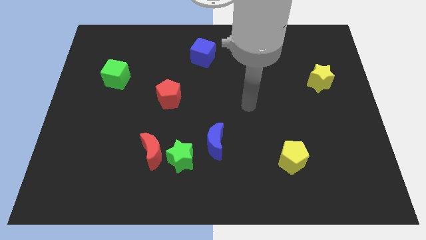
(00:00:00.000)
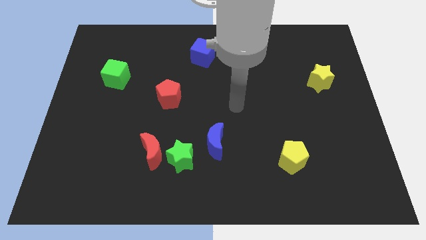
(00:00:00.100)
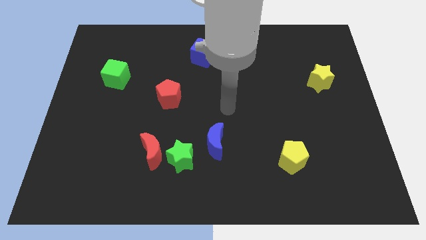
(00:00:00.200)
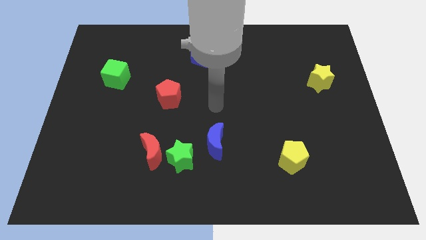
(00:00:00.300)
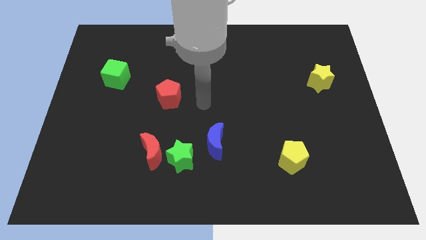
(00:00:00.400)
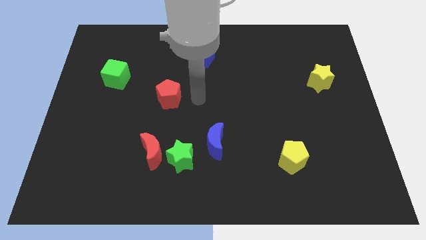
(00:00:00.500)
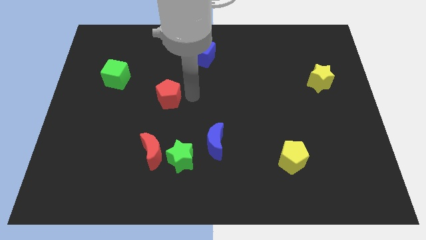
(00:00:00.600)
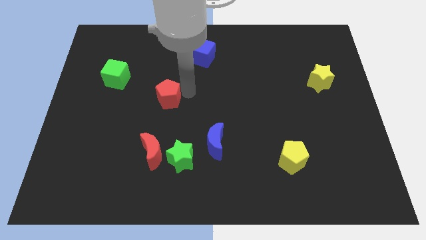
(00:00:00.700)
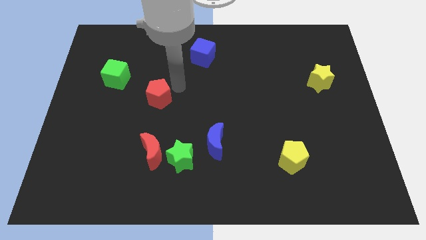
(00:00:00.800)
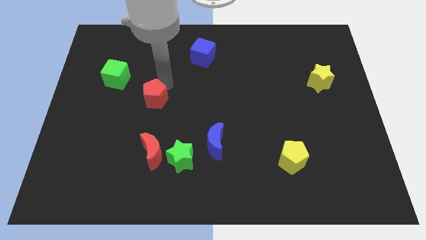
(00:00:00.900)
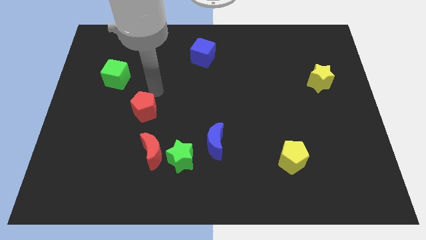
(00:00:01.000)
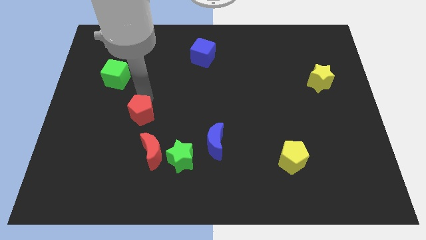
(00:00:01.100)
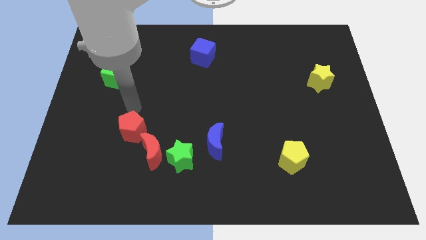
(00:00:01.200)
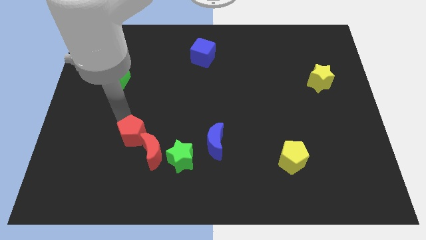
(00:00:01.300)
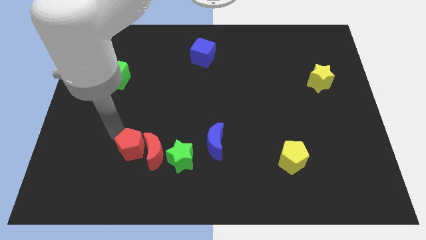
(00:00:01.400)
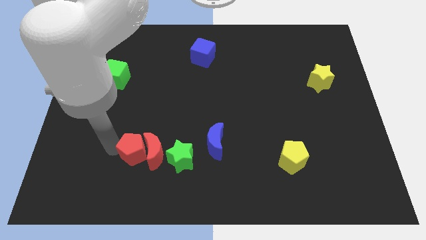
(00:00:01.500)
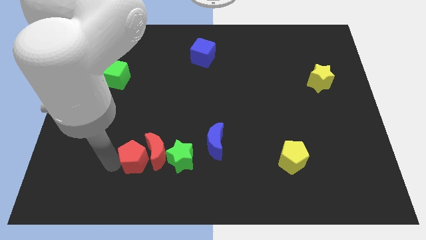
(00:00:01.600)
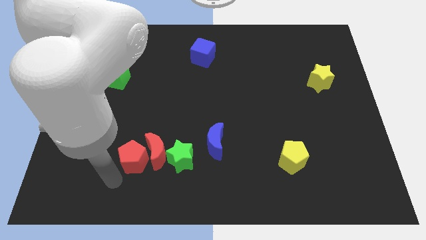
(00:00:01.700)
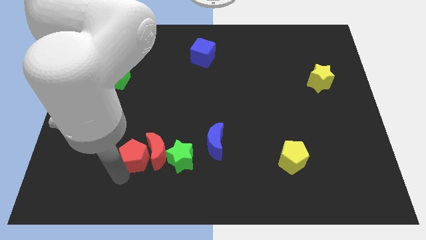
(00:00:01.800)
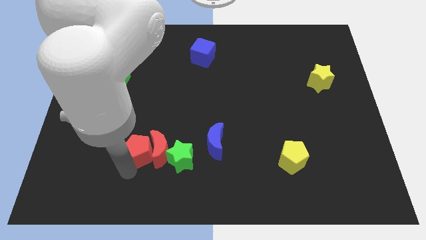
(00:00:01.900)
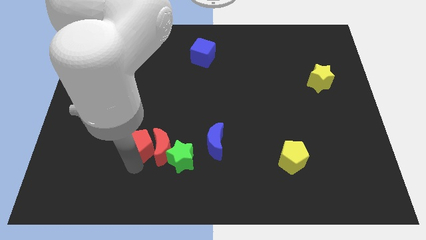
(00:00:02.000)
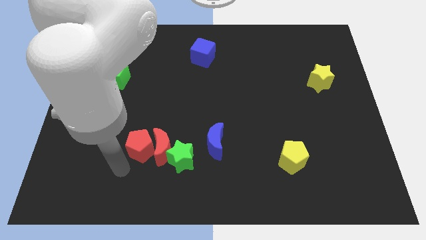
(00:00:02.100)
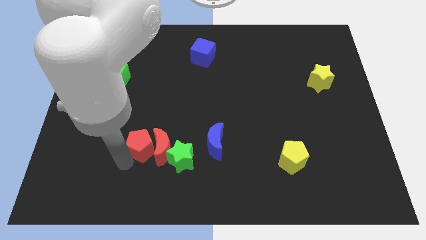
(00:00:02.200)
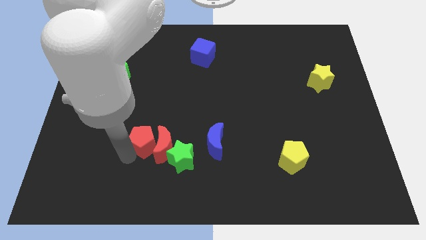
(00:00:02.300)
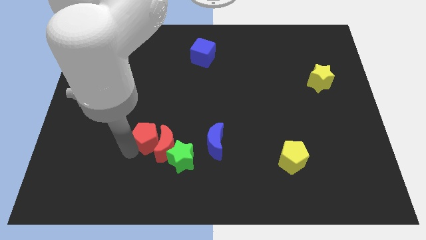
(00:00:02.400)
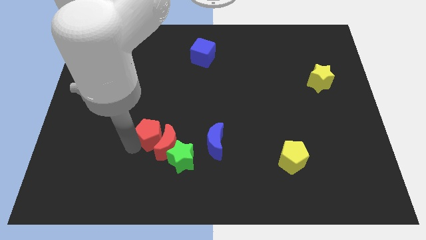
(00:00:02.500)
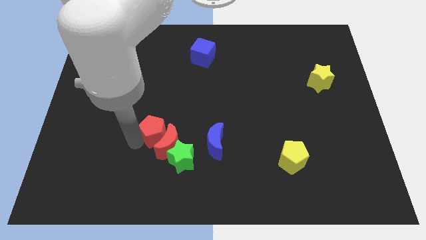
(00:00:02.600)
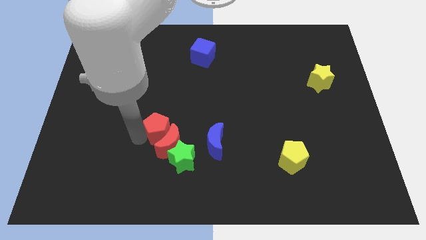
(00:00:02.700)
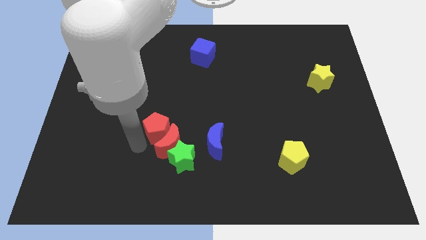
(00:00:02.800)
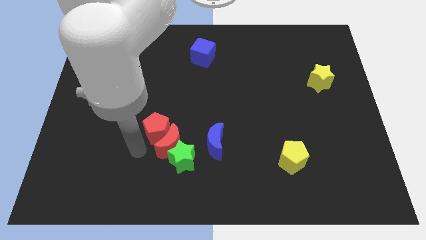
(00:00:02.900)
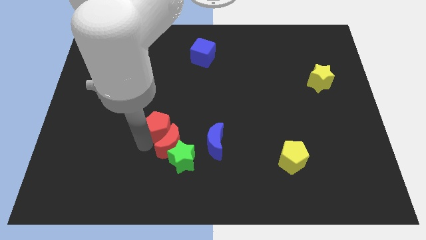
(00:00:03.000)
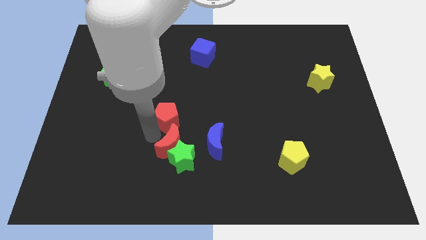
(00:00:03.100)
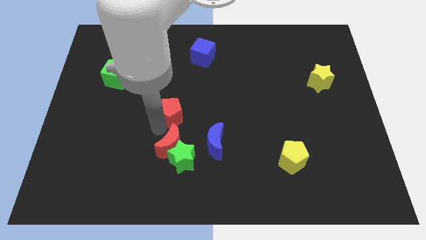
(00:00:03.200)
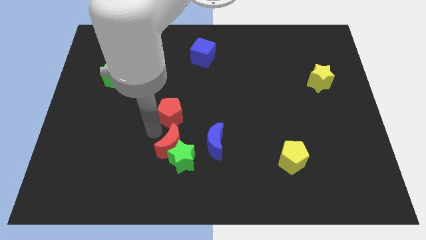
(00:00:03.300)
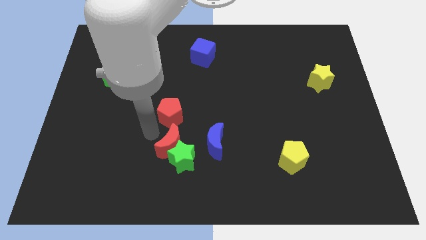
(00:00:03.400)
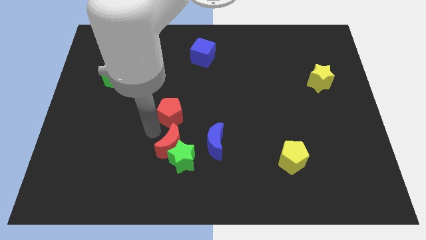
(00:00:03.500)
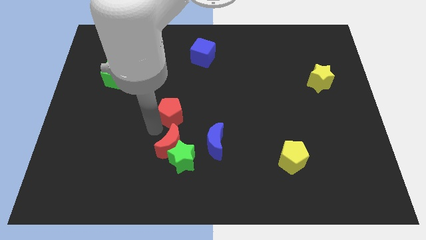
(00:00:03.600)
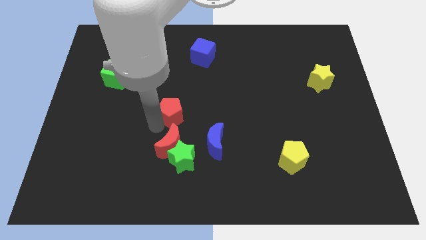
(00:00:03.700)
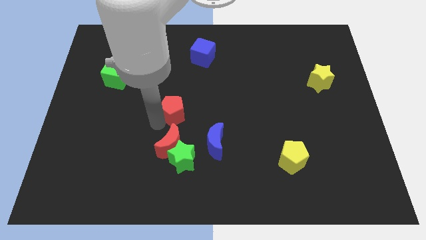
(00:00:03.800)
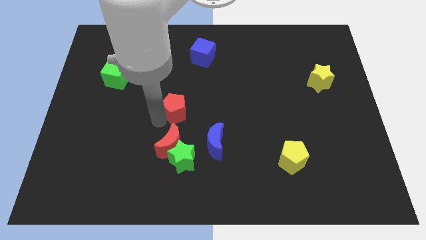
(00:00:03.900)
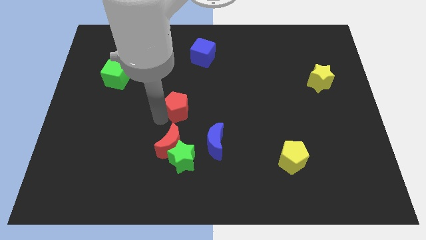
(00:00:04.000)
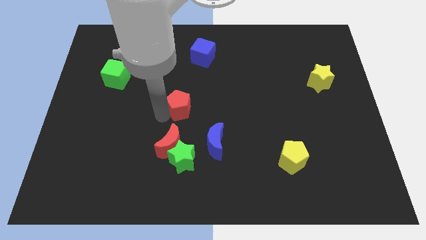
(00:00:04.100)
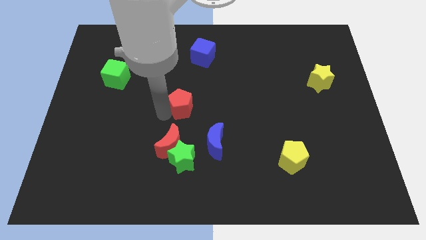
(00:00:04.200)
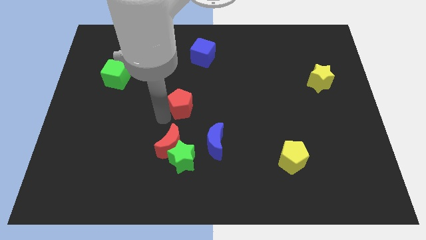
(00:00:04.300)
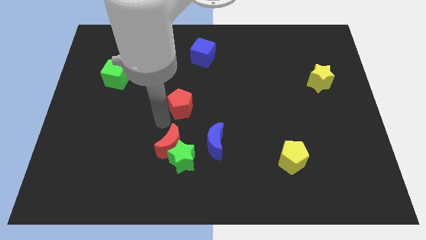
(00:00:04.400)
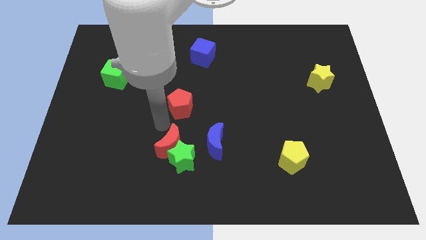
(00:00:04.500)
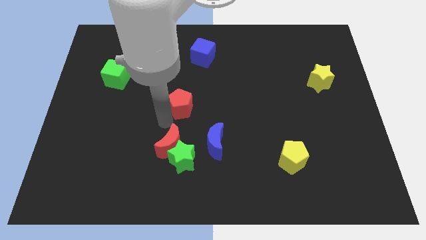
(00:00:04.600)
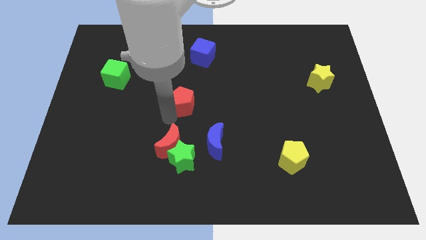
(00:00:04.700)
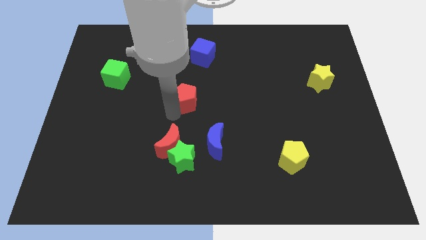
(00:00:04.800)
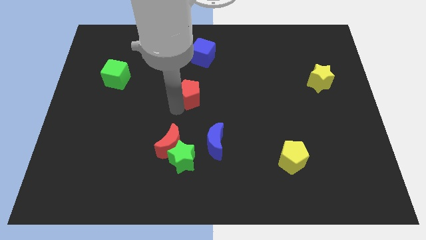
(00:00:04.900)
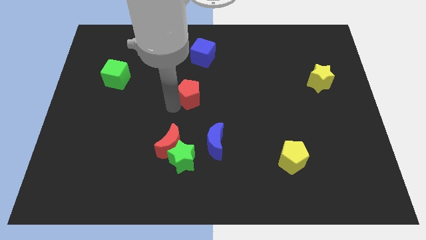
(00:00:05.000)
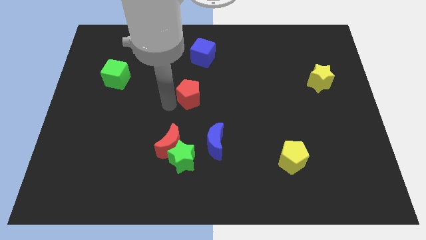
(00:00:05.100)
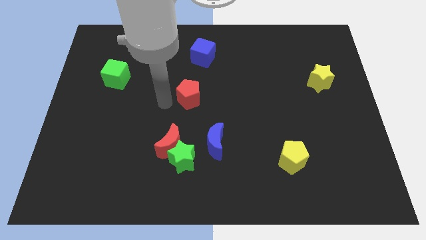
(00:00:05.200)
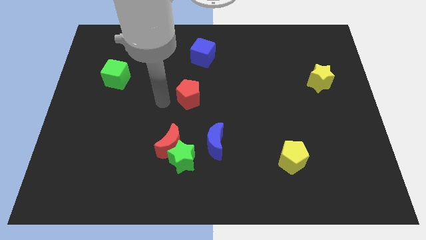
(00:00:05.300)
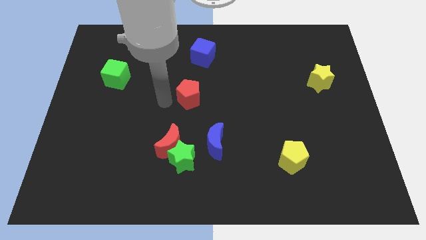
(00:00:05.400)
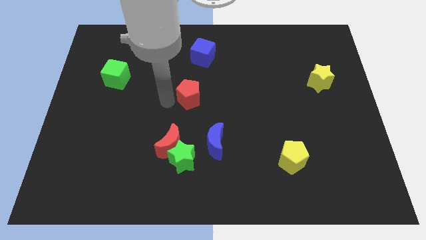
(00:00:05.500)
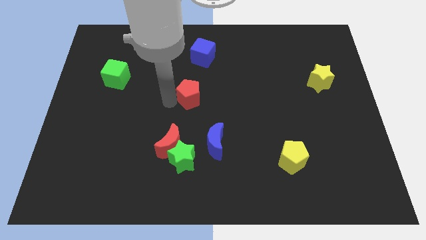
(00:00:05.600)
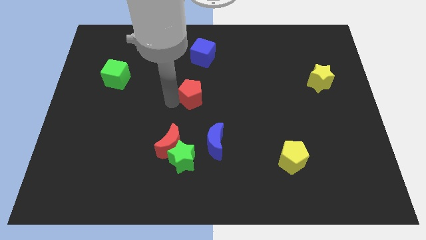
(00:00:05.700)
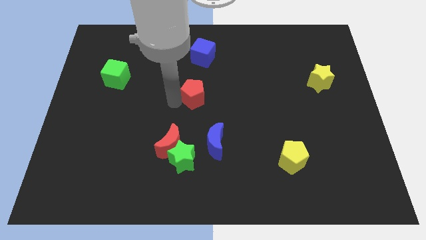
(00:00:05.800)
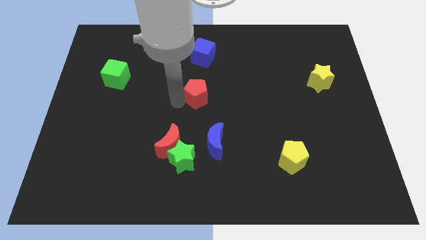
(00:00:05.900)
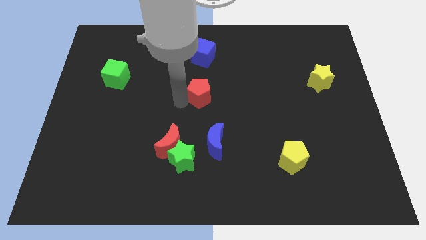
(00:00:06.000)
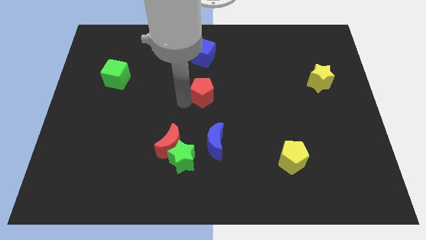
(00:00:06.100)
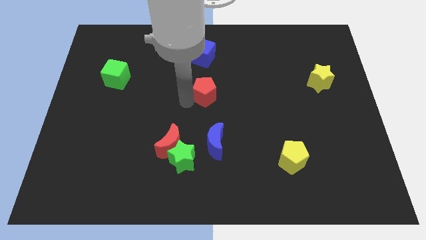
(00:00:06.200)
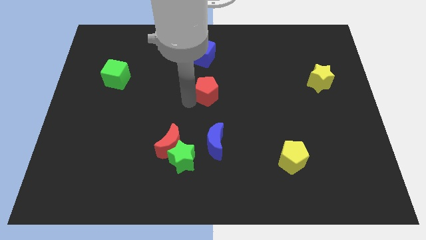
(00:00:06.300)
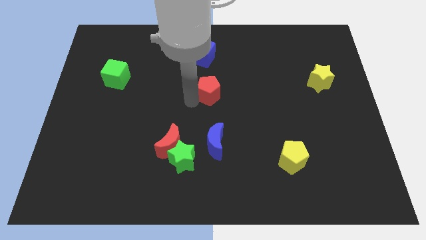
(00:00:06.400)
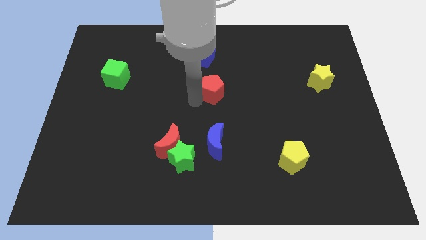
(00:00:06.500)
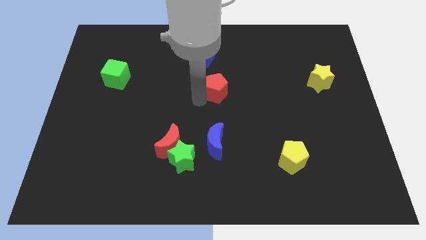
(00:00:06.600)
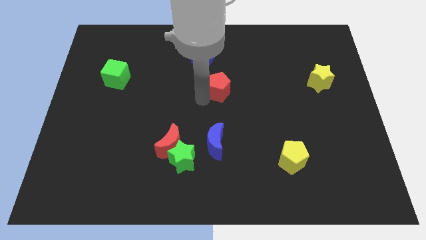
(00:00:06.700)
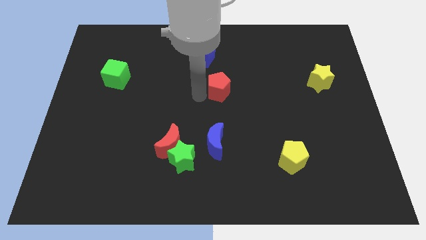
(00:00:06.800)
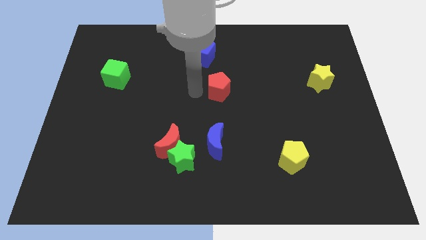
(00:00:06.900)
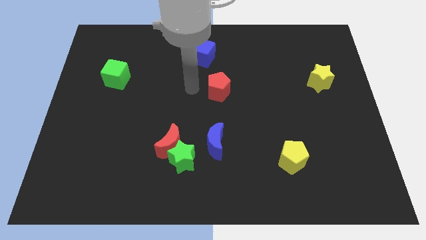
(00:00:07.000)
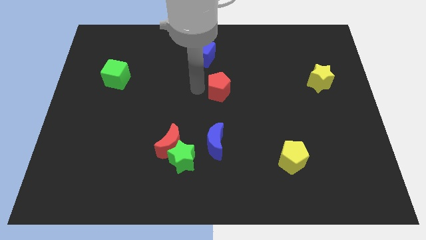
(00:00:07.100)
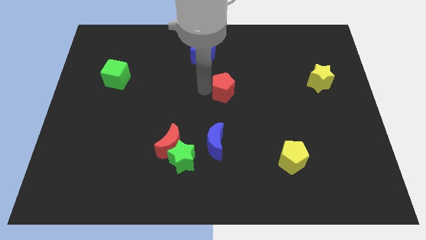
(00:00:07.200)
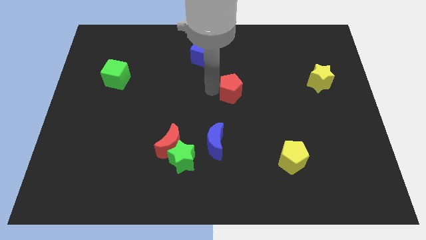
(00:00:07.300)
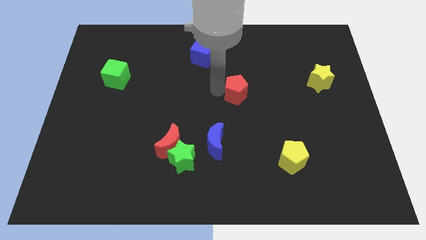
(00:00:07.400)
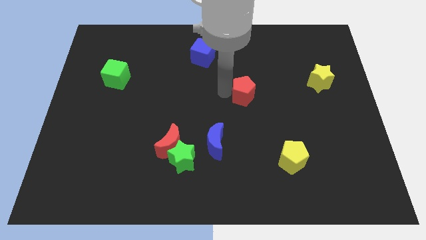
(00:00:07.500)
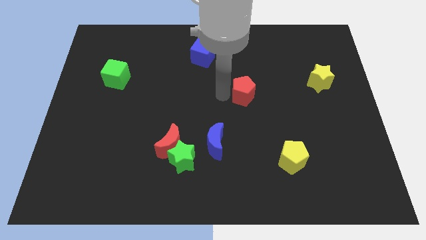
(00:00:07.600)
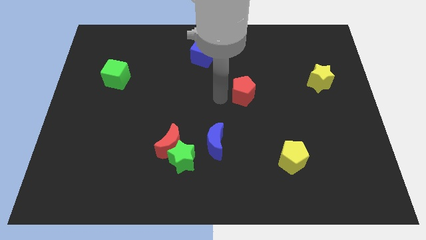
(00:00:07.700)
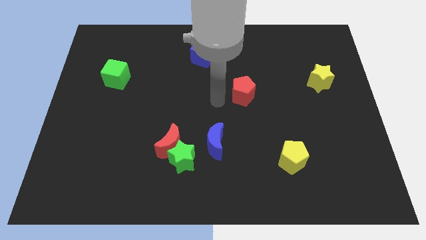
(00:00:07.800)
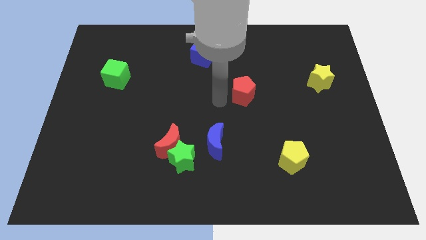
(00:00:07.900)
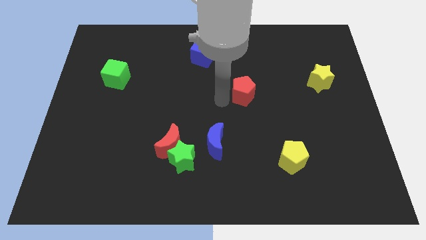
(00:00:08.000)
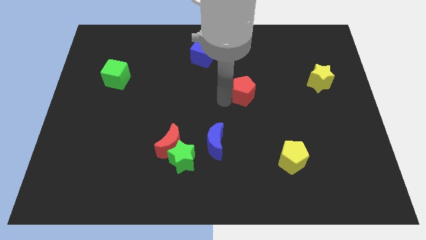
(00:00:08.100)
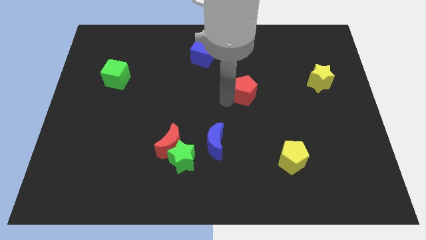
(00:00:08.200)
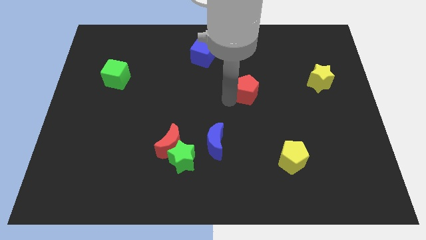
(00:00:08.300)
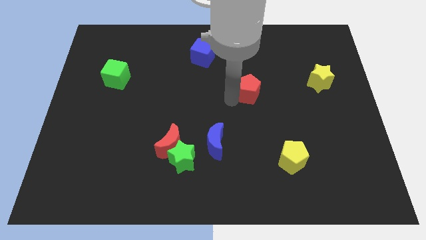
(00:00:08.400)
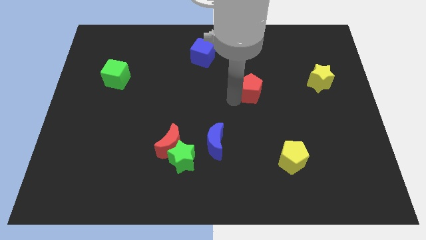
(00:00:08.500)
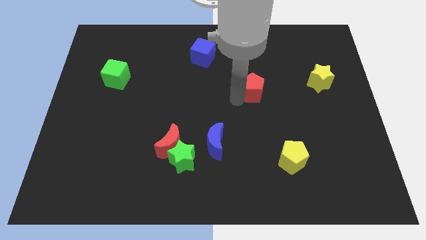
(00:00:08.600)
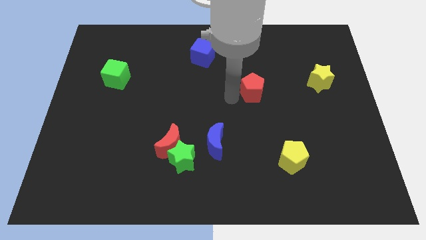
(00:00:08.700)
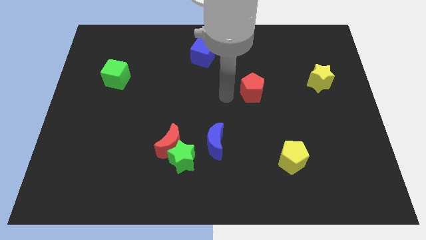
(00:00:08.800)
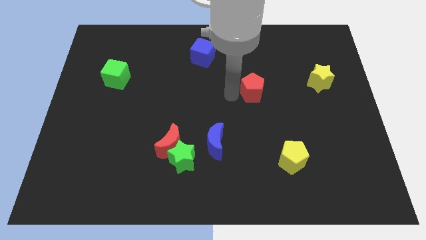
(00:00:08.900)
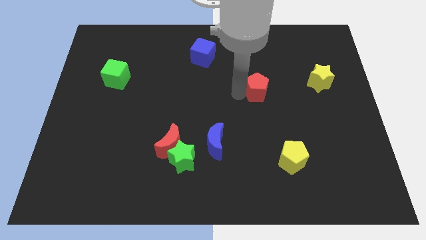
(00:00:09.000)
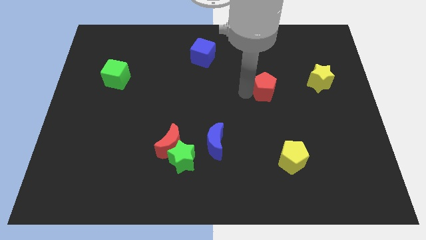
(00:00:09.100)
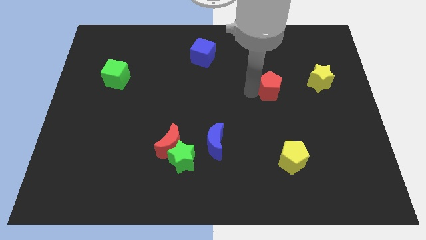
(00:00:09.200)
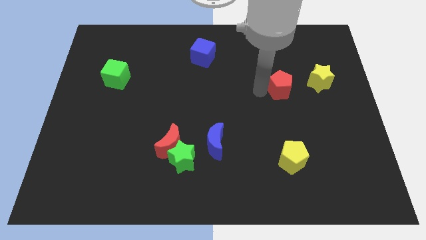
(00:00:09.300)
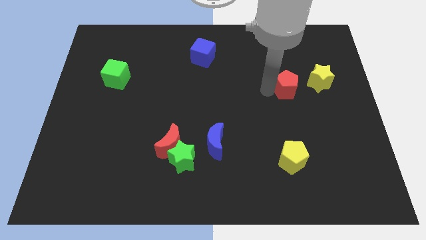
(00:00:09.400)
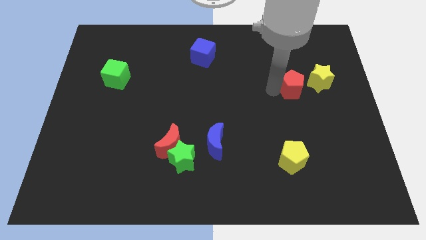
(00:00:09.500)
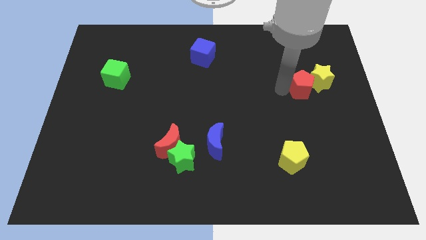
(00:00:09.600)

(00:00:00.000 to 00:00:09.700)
move the red pentagon close to the yellow star
